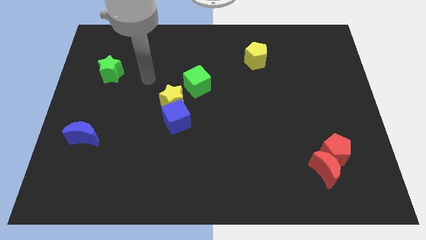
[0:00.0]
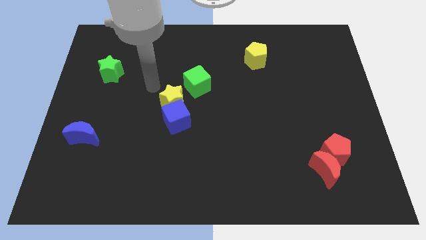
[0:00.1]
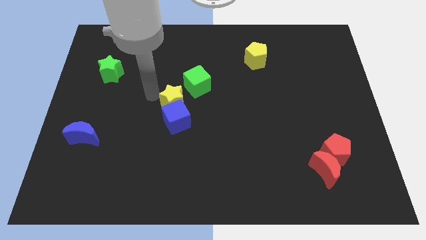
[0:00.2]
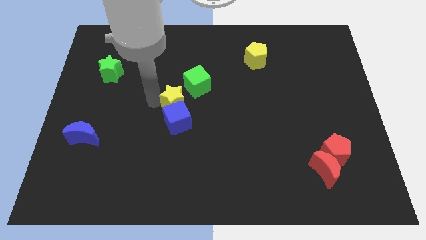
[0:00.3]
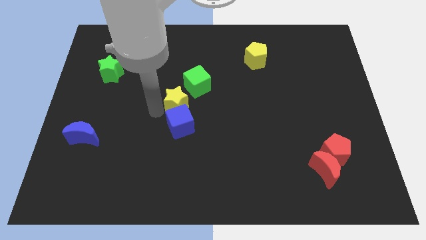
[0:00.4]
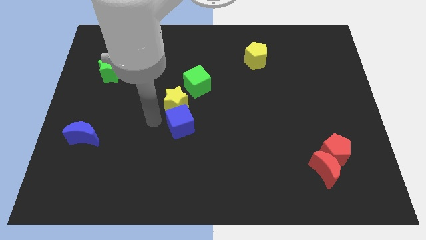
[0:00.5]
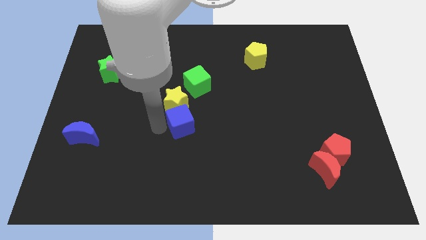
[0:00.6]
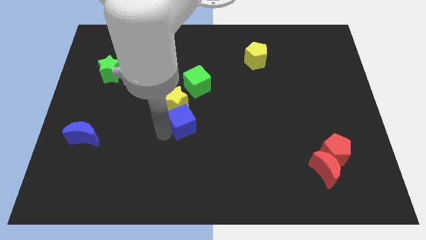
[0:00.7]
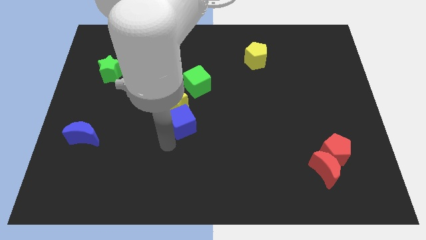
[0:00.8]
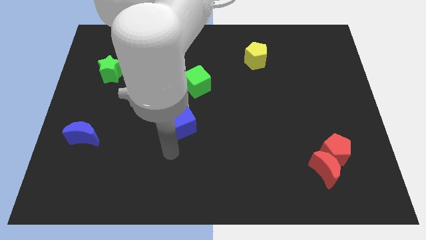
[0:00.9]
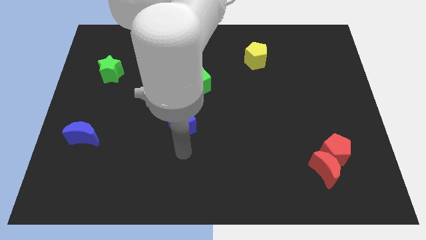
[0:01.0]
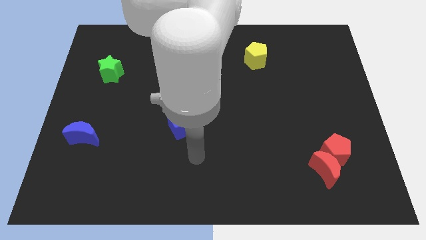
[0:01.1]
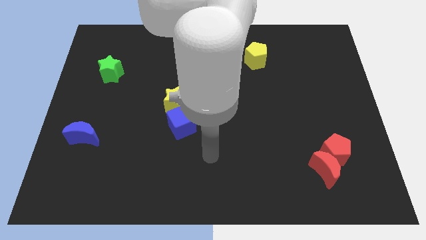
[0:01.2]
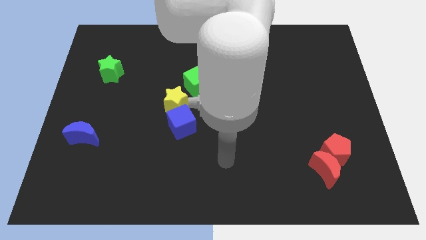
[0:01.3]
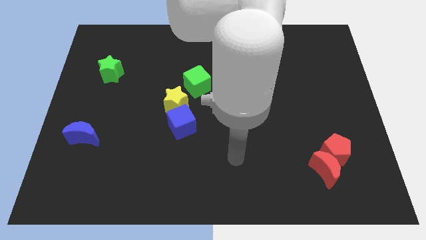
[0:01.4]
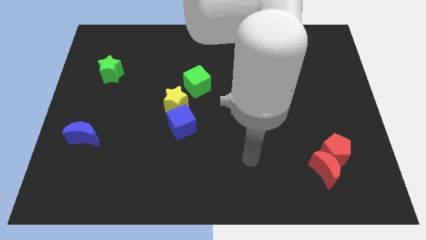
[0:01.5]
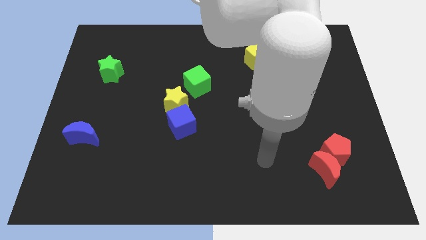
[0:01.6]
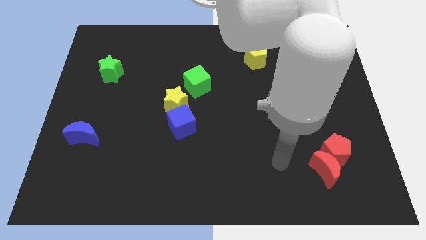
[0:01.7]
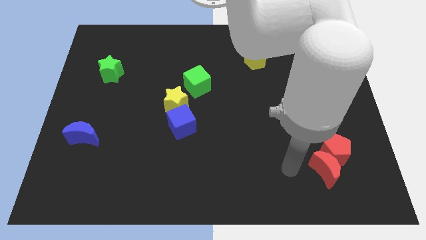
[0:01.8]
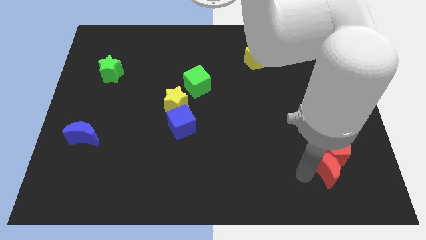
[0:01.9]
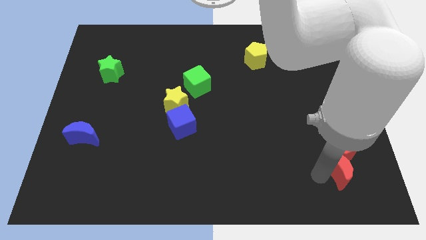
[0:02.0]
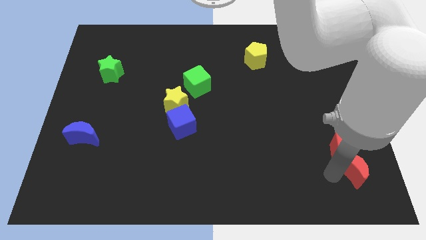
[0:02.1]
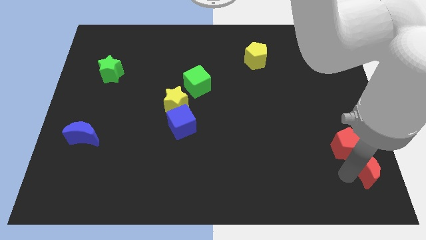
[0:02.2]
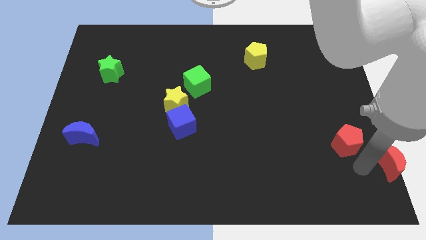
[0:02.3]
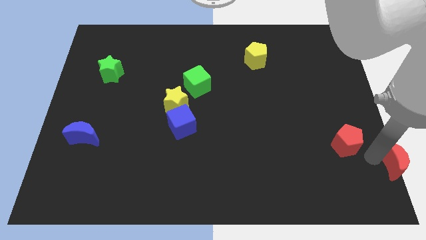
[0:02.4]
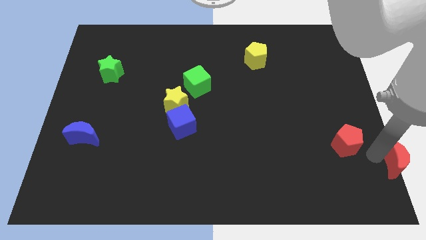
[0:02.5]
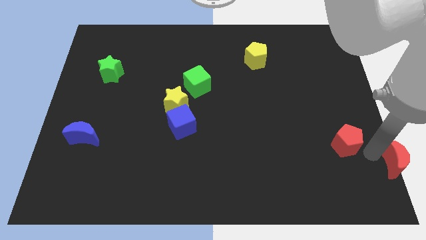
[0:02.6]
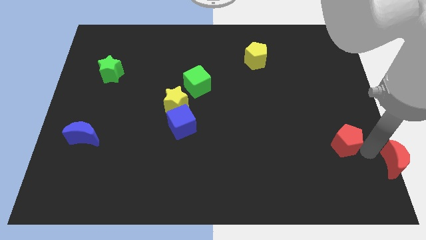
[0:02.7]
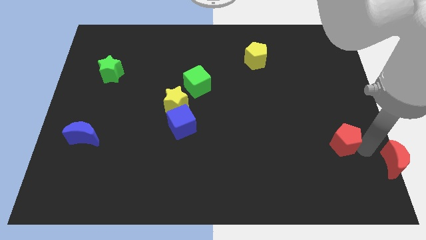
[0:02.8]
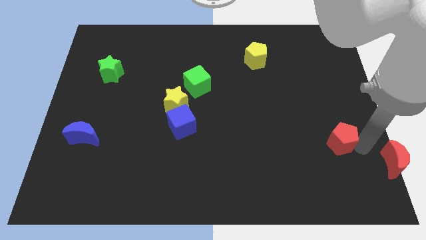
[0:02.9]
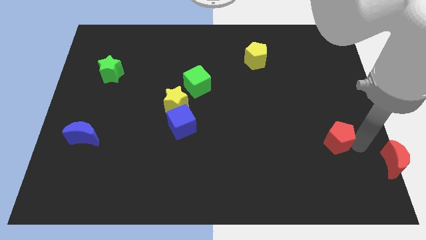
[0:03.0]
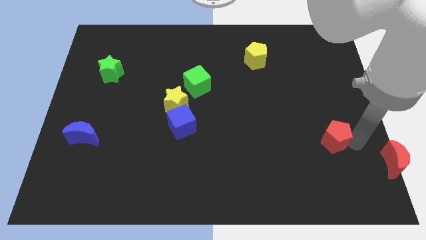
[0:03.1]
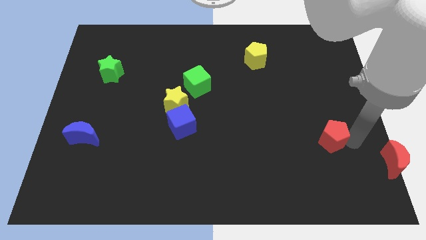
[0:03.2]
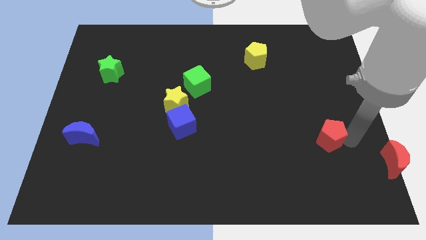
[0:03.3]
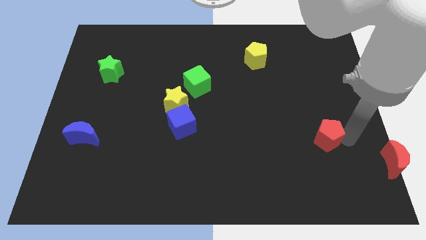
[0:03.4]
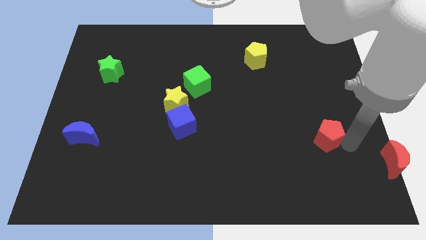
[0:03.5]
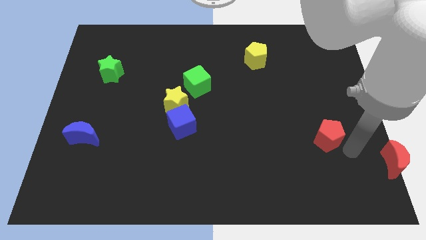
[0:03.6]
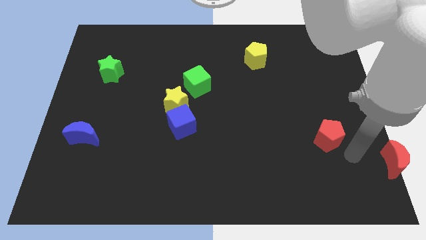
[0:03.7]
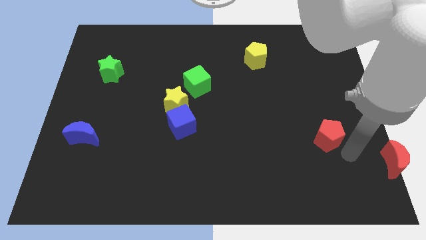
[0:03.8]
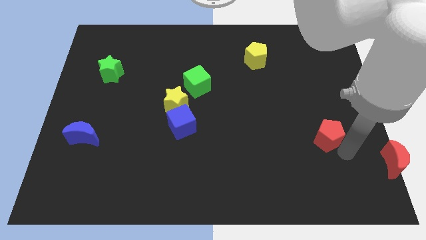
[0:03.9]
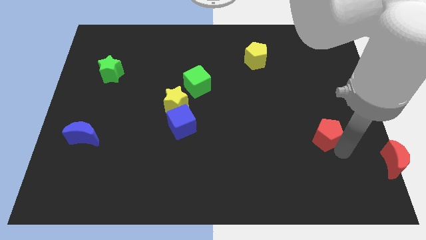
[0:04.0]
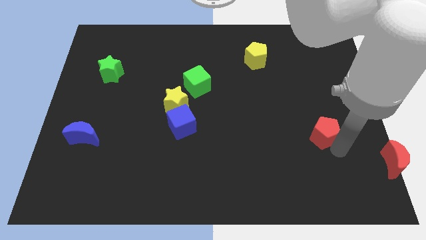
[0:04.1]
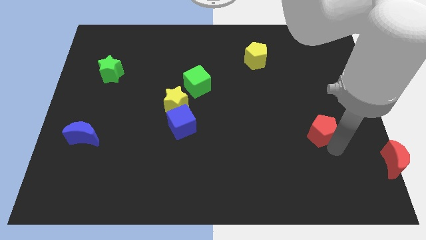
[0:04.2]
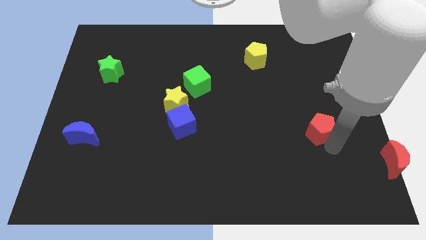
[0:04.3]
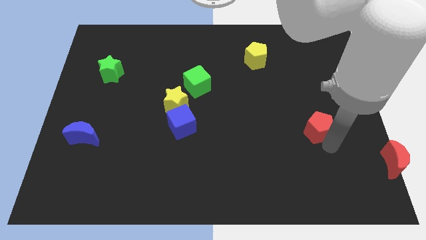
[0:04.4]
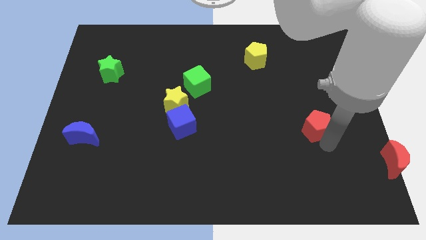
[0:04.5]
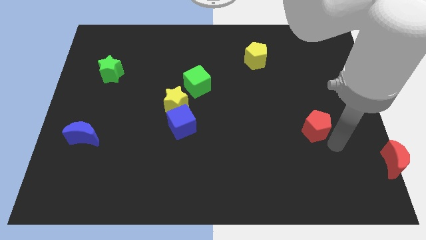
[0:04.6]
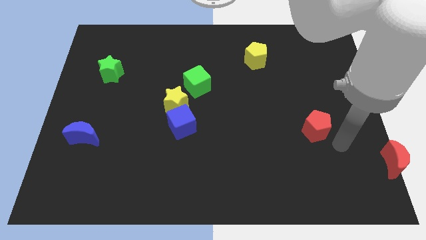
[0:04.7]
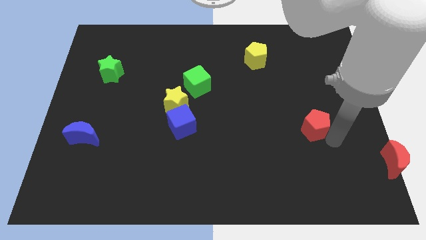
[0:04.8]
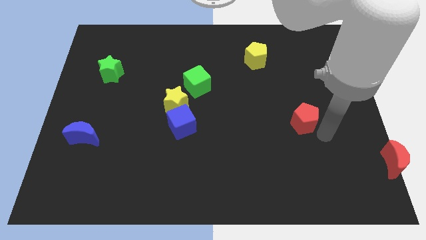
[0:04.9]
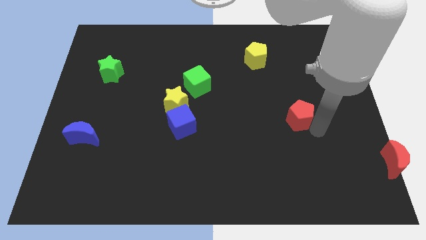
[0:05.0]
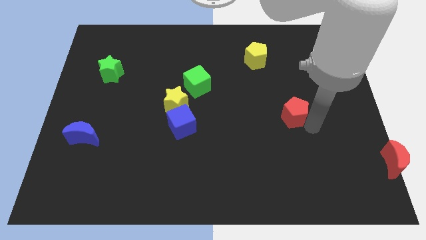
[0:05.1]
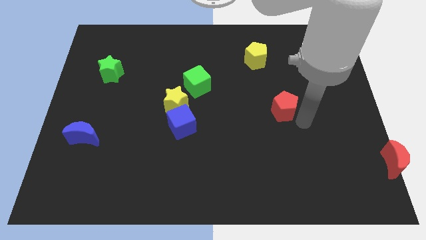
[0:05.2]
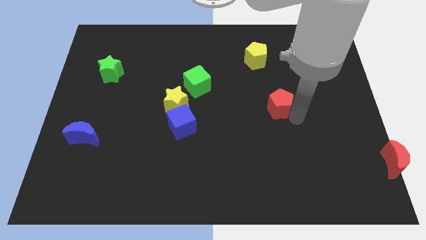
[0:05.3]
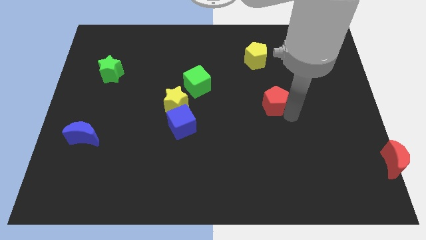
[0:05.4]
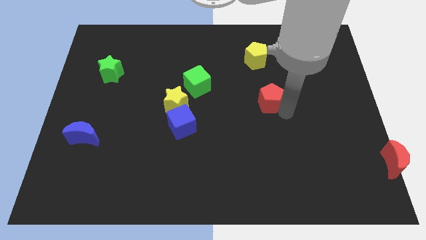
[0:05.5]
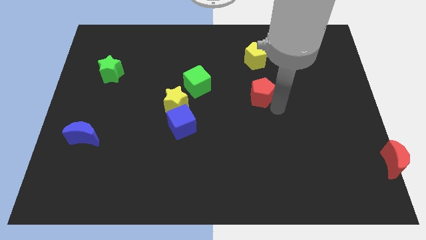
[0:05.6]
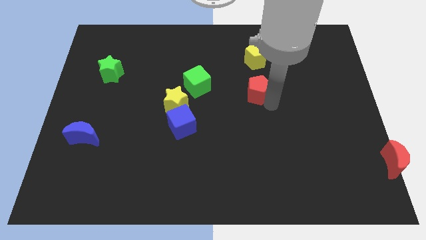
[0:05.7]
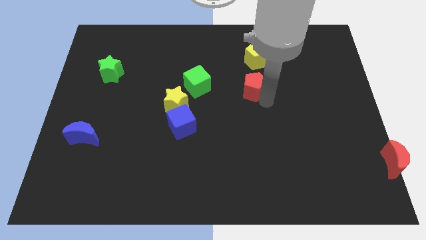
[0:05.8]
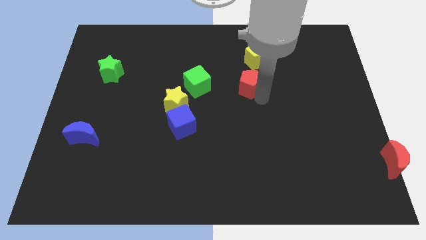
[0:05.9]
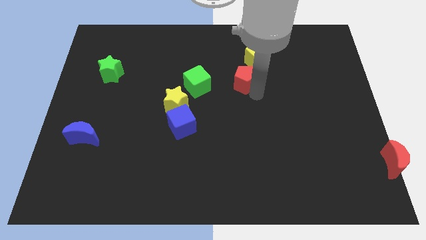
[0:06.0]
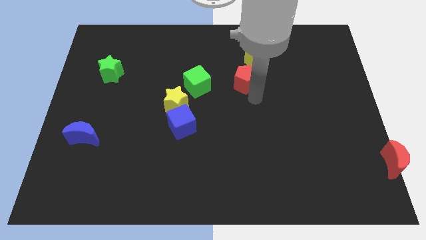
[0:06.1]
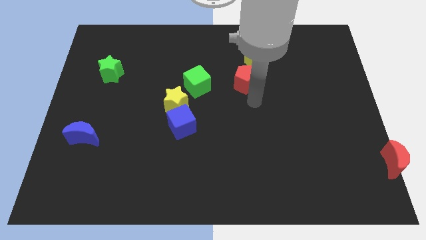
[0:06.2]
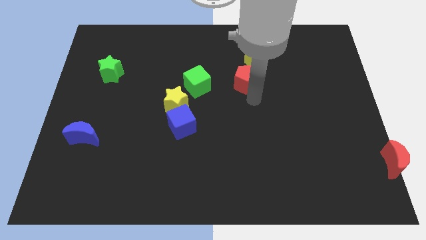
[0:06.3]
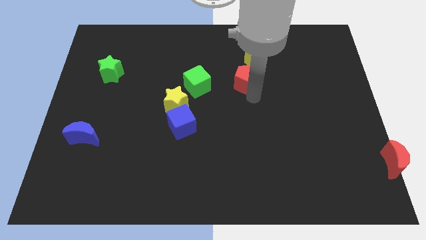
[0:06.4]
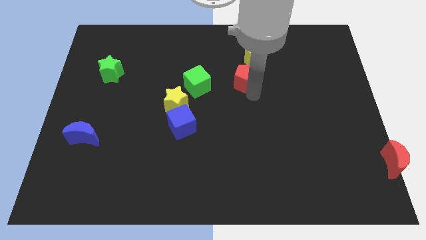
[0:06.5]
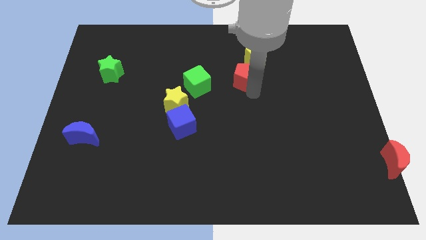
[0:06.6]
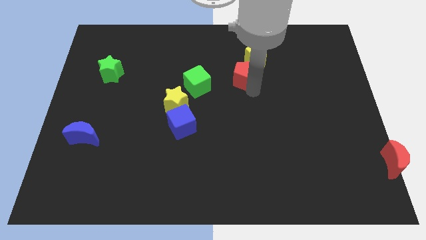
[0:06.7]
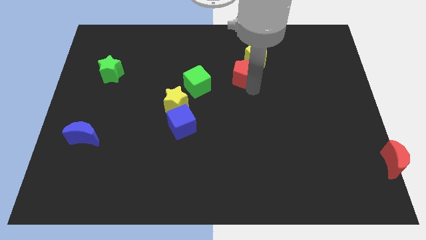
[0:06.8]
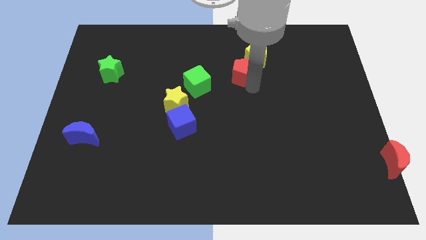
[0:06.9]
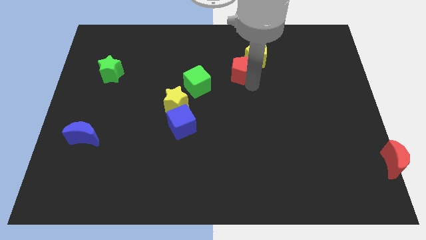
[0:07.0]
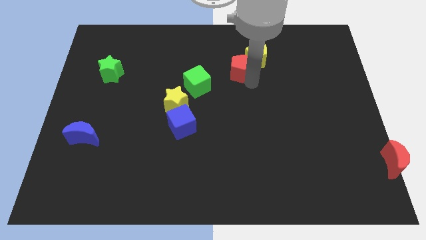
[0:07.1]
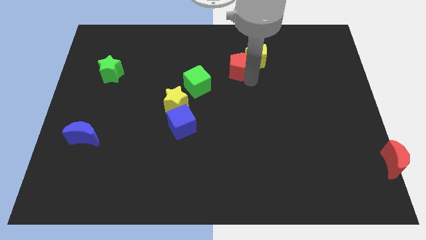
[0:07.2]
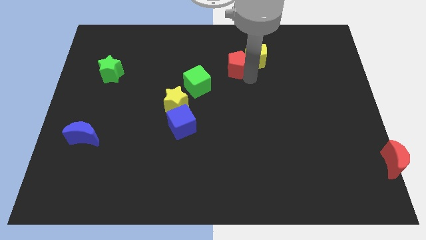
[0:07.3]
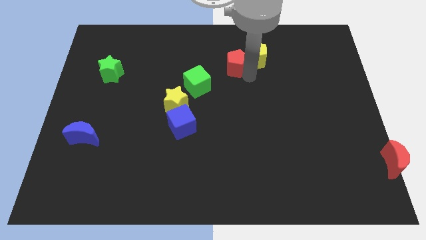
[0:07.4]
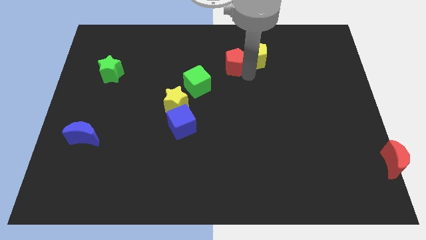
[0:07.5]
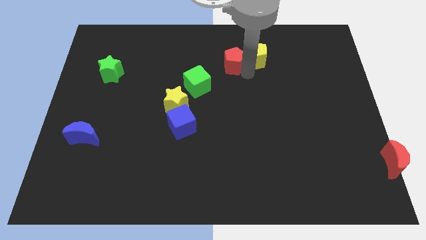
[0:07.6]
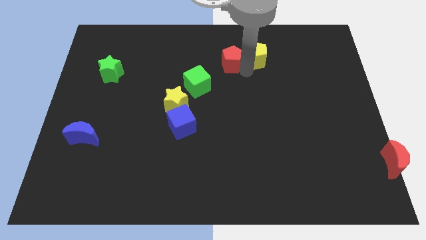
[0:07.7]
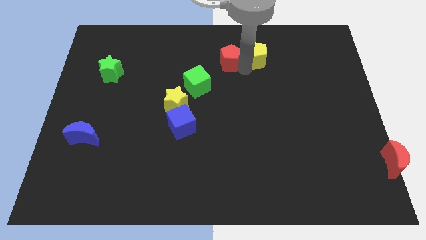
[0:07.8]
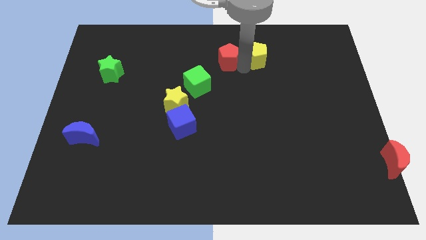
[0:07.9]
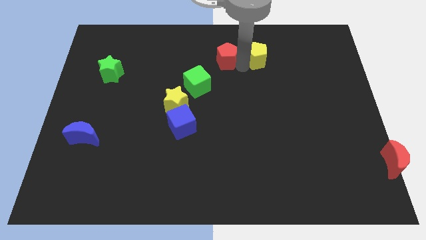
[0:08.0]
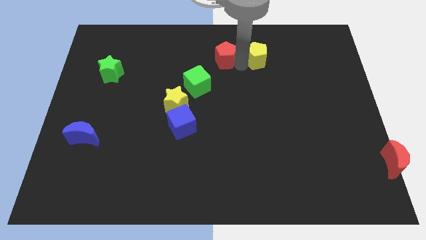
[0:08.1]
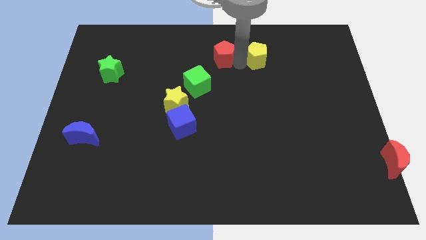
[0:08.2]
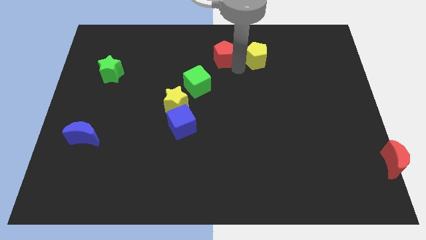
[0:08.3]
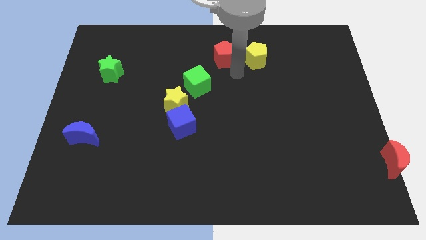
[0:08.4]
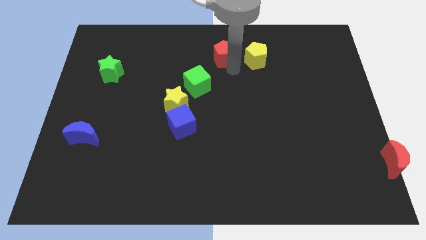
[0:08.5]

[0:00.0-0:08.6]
move the red pentagon to the top side
